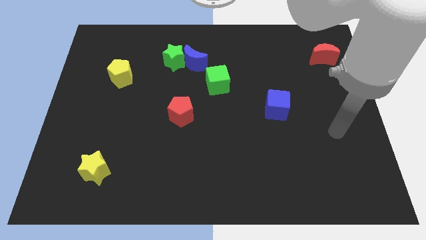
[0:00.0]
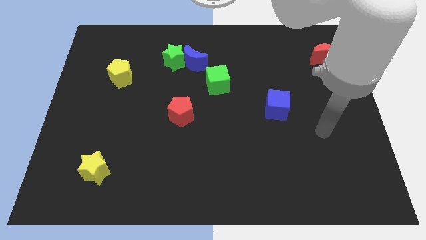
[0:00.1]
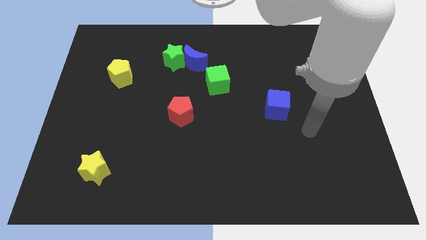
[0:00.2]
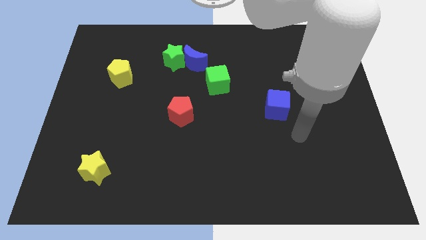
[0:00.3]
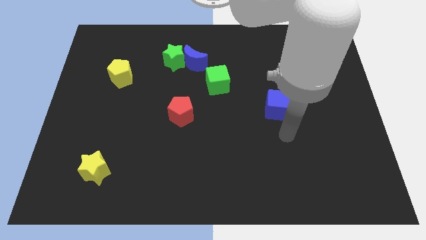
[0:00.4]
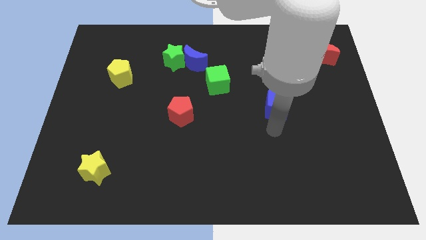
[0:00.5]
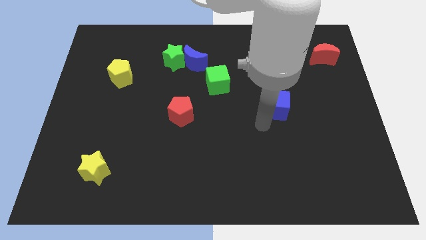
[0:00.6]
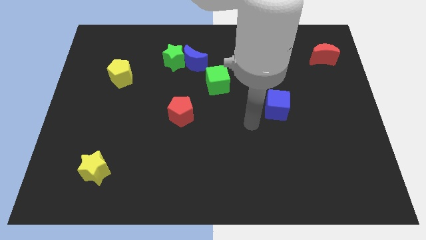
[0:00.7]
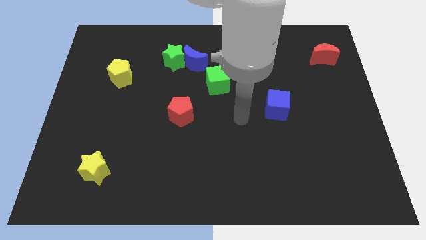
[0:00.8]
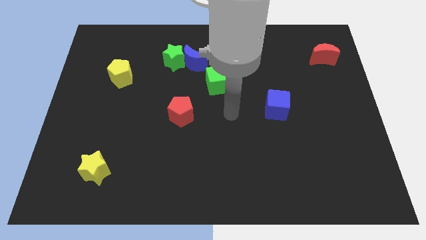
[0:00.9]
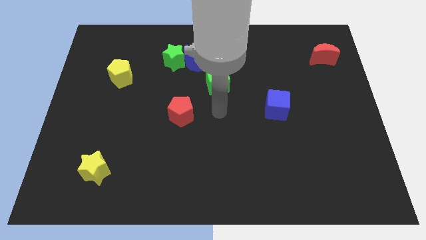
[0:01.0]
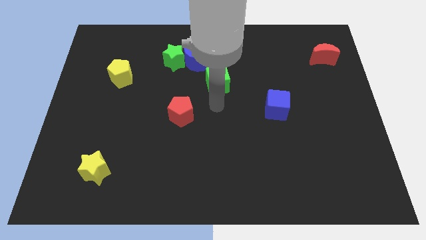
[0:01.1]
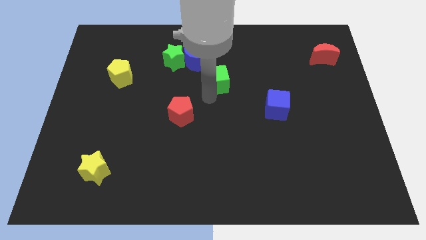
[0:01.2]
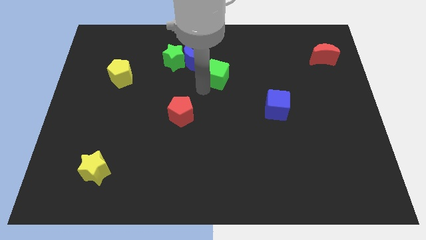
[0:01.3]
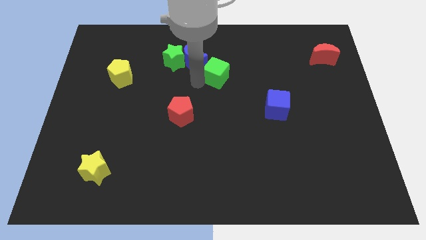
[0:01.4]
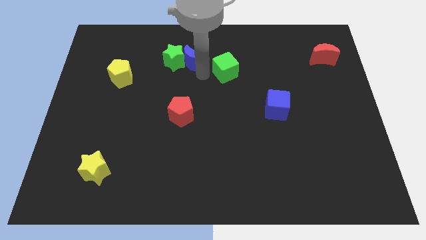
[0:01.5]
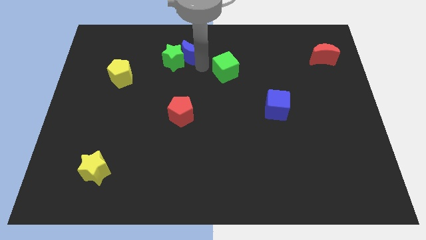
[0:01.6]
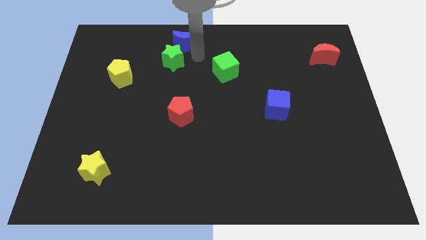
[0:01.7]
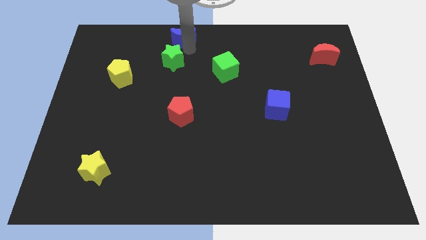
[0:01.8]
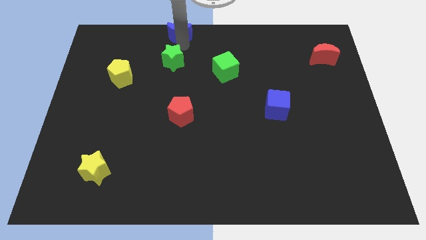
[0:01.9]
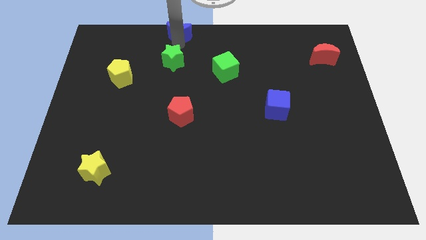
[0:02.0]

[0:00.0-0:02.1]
separate the green star from the blue moon

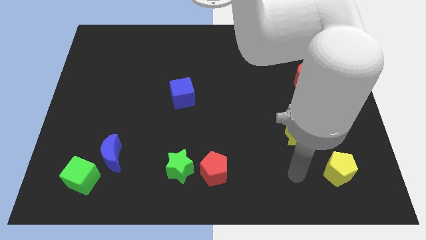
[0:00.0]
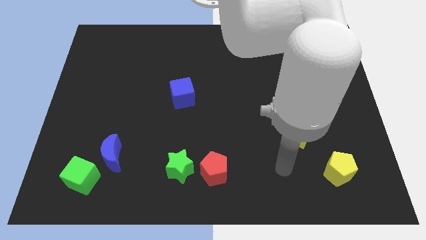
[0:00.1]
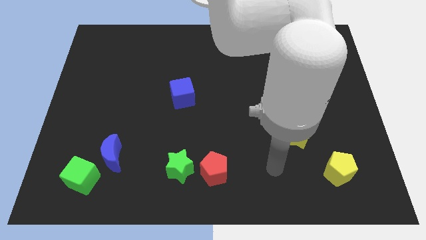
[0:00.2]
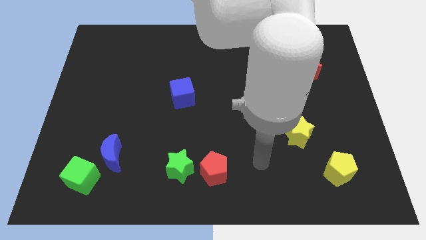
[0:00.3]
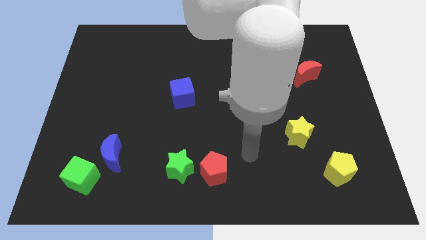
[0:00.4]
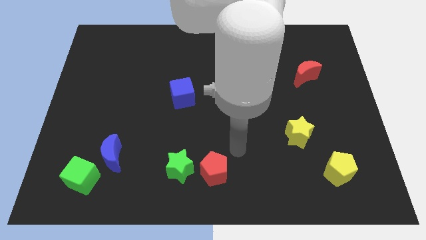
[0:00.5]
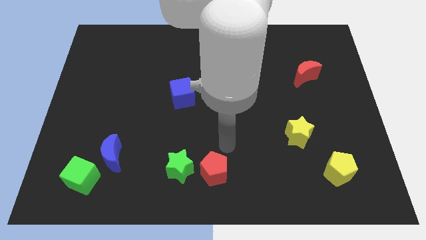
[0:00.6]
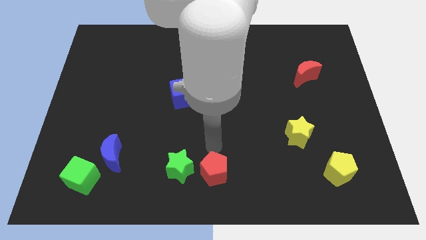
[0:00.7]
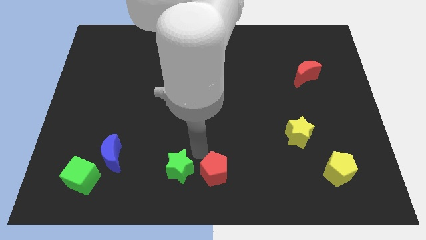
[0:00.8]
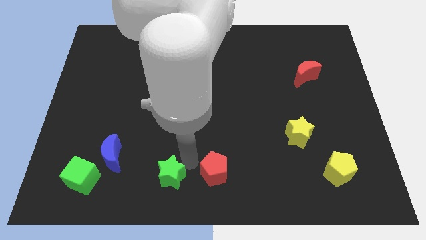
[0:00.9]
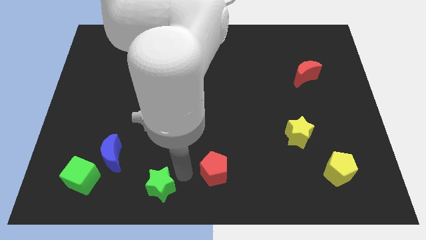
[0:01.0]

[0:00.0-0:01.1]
pull the red pentagon apart from the green star

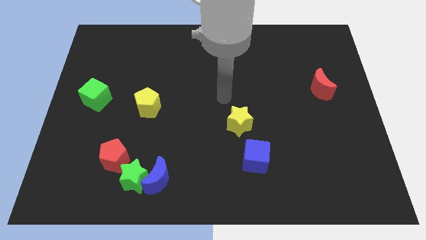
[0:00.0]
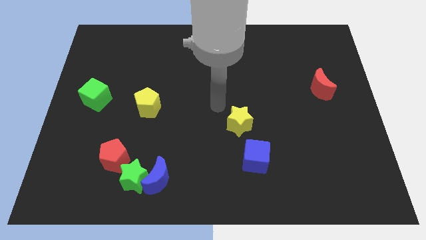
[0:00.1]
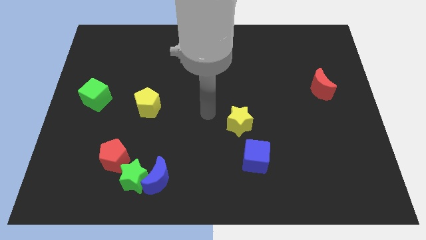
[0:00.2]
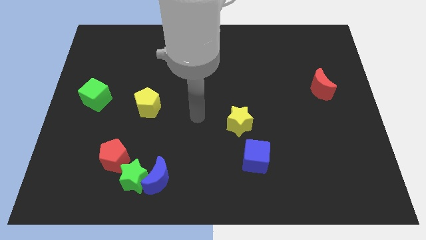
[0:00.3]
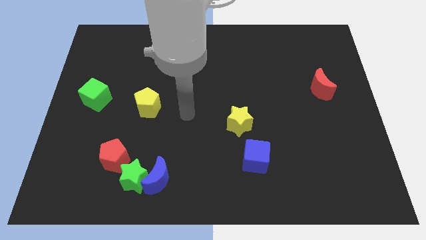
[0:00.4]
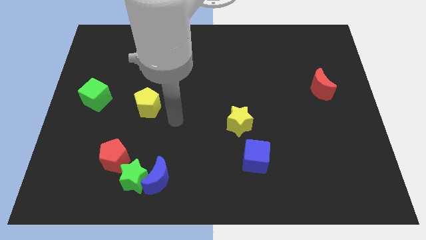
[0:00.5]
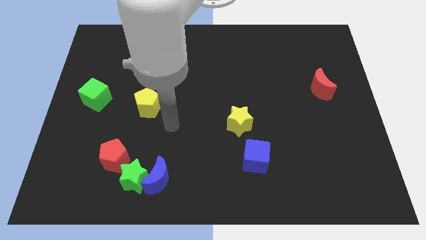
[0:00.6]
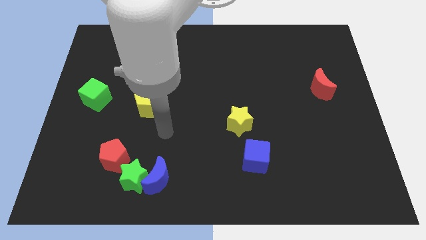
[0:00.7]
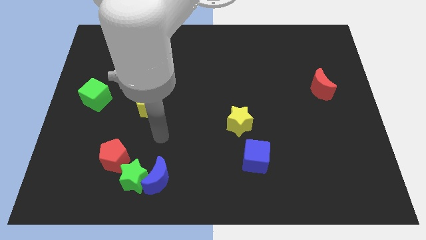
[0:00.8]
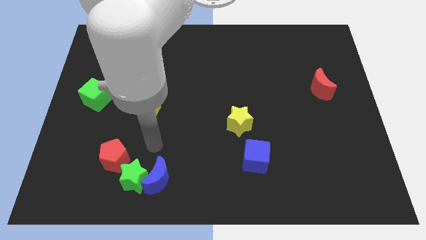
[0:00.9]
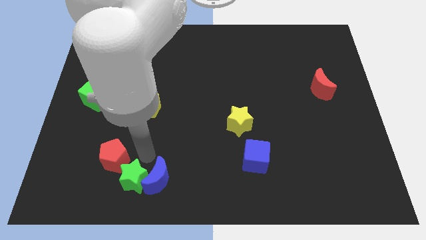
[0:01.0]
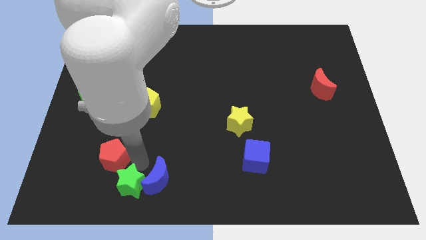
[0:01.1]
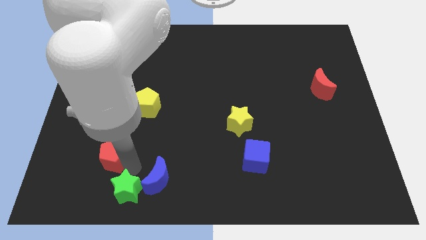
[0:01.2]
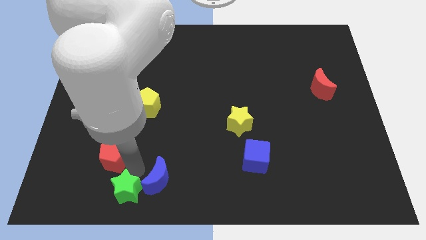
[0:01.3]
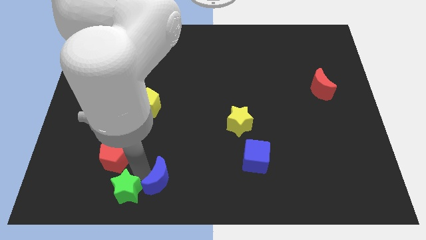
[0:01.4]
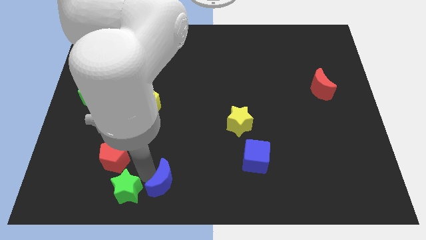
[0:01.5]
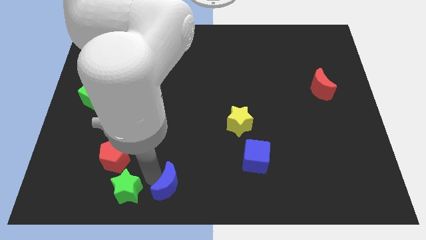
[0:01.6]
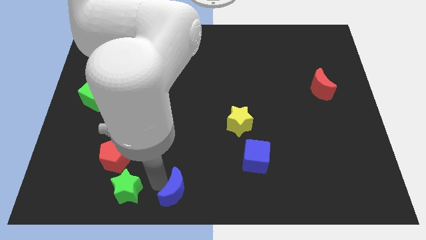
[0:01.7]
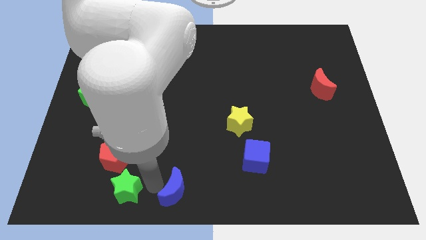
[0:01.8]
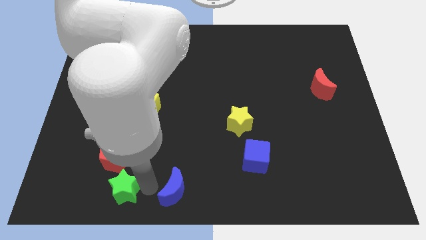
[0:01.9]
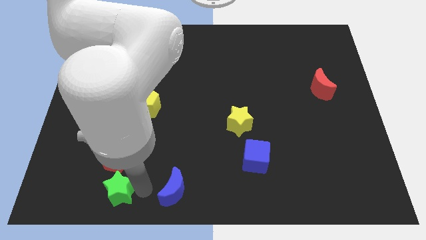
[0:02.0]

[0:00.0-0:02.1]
separate the blue moon from the green star

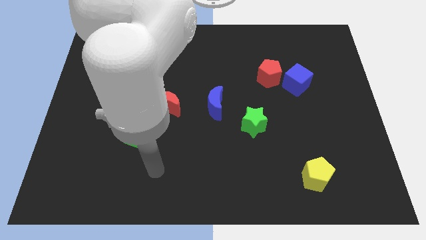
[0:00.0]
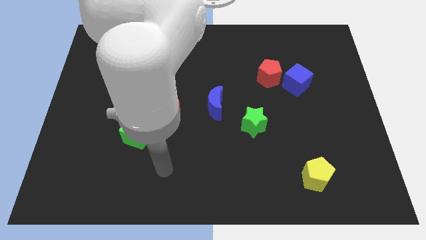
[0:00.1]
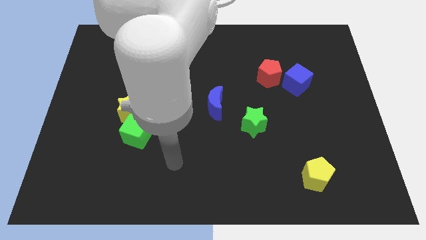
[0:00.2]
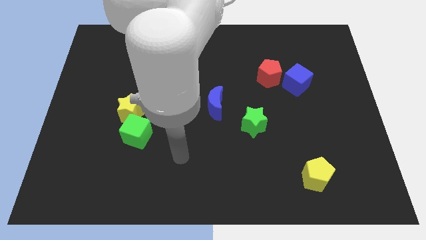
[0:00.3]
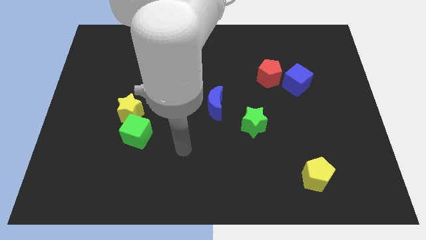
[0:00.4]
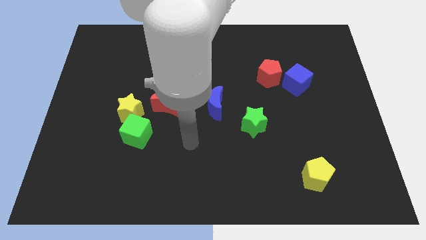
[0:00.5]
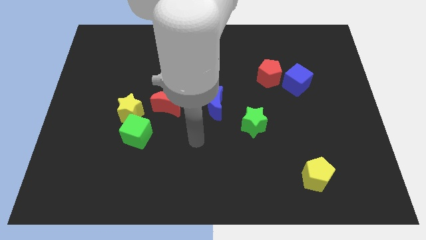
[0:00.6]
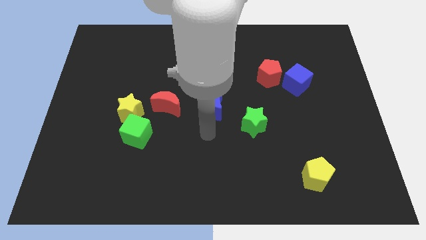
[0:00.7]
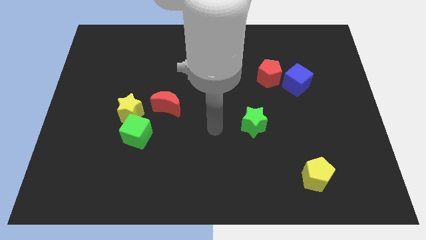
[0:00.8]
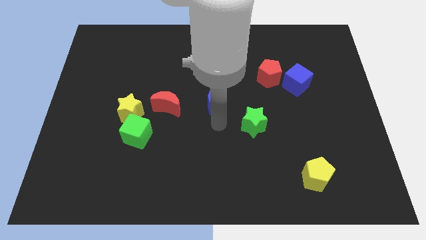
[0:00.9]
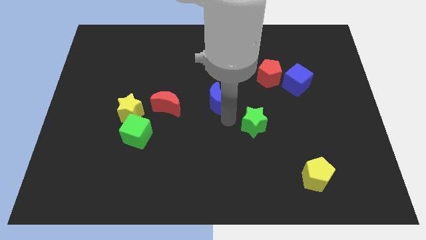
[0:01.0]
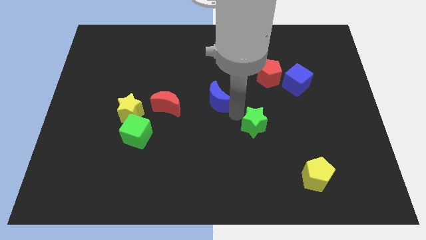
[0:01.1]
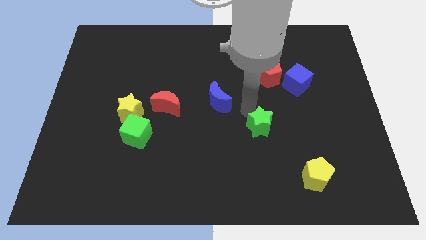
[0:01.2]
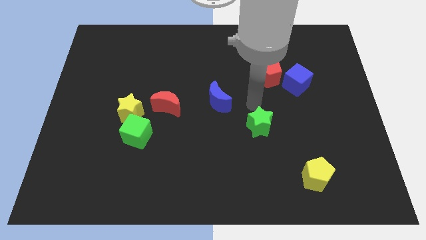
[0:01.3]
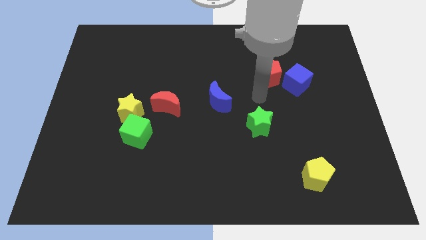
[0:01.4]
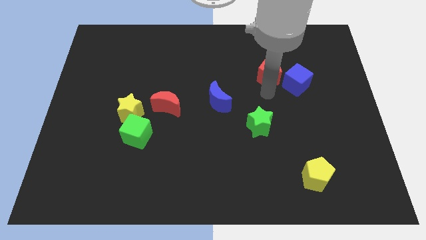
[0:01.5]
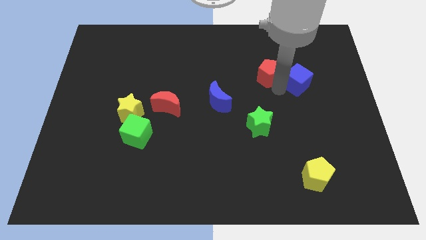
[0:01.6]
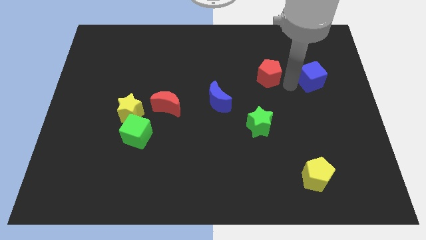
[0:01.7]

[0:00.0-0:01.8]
separate the red pentagon from the blue cube

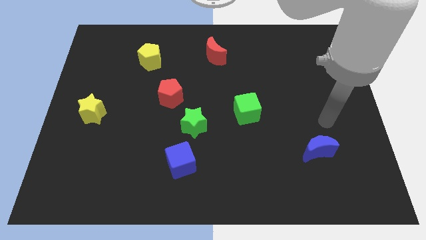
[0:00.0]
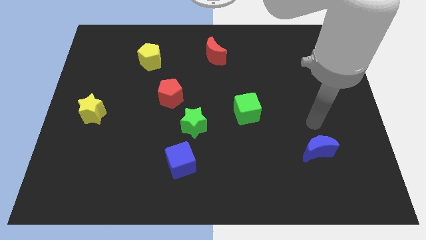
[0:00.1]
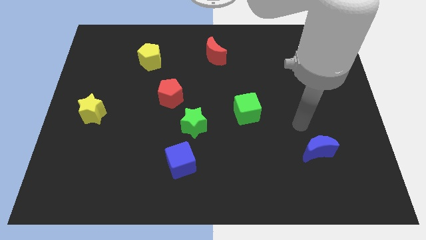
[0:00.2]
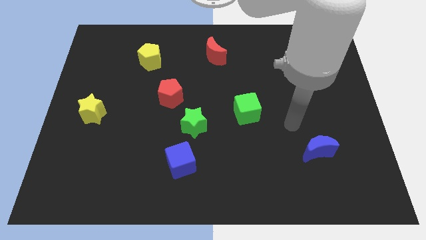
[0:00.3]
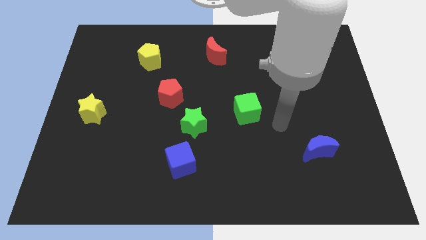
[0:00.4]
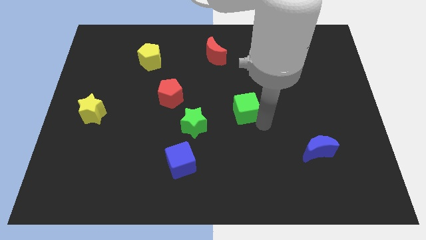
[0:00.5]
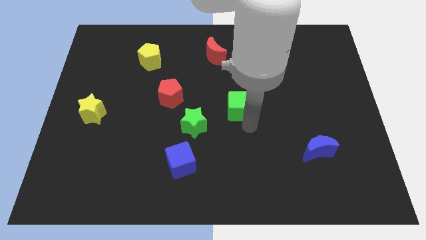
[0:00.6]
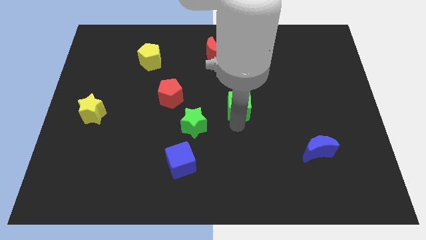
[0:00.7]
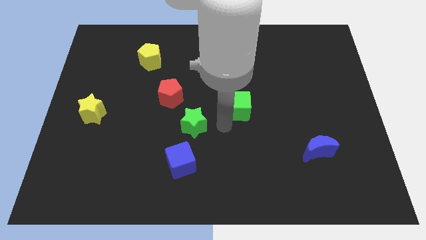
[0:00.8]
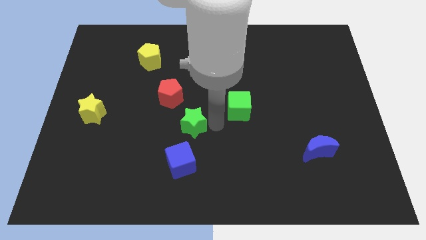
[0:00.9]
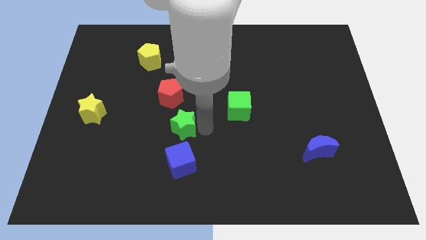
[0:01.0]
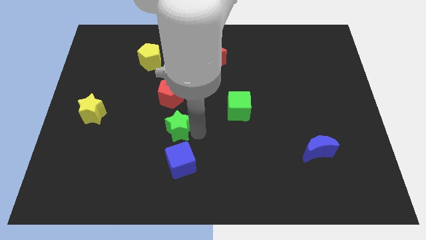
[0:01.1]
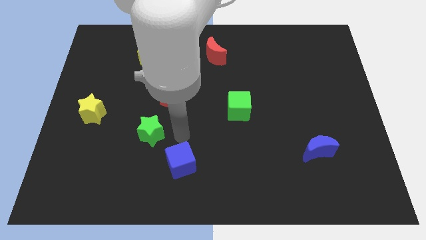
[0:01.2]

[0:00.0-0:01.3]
move the blue cube away from the green star

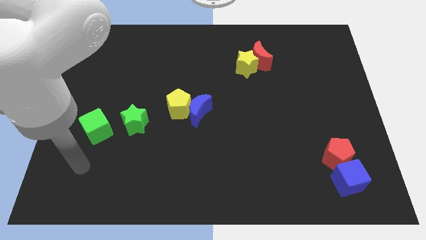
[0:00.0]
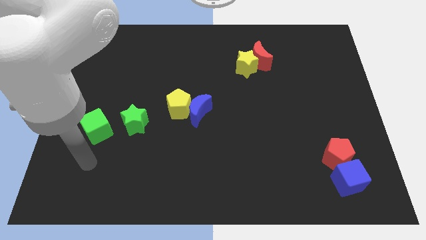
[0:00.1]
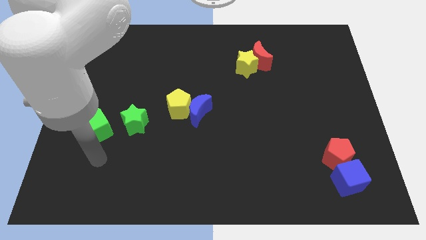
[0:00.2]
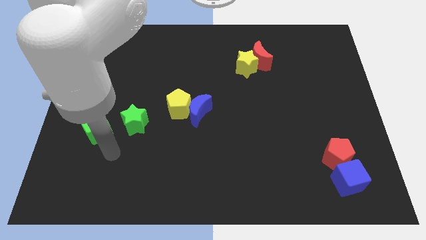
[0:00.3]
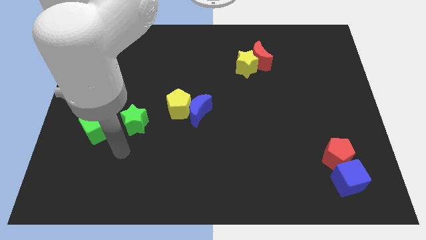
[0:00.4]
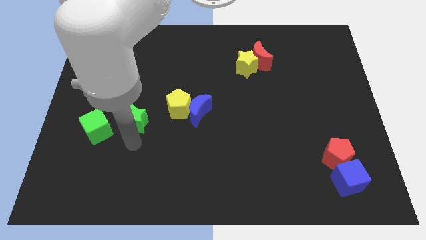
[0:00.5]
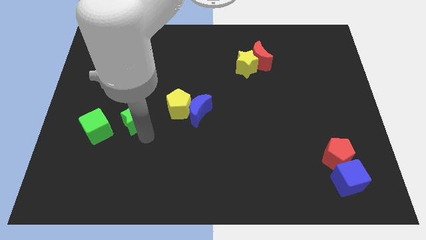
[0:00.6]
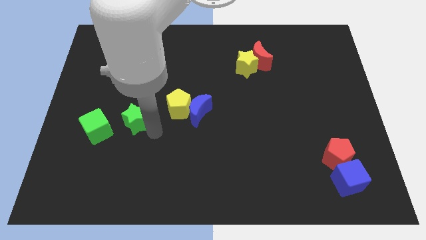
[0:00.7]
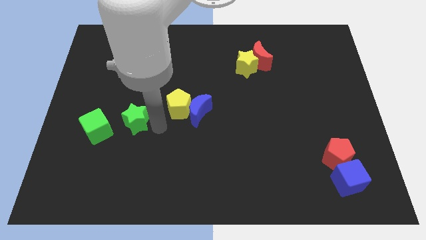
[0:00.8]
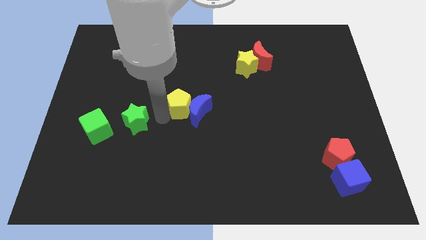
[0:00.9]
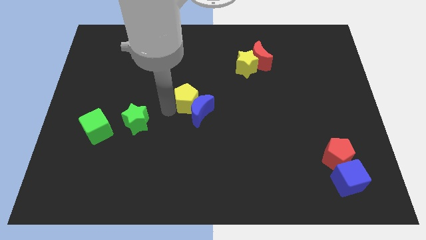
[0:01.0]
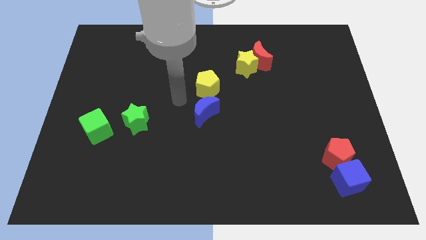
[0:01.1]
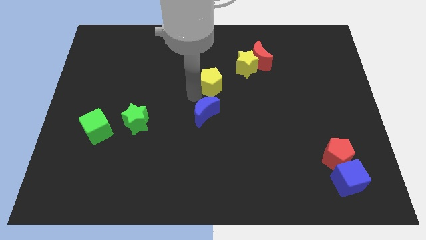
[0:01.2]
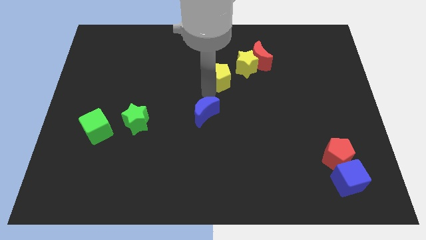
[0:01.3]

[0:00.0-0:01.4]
pull the blue moon apart from the yellow pentagon